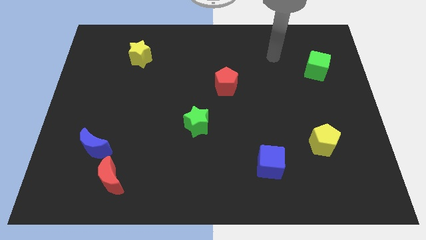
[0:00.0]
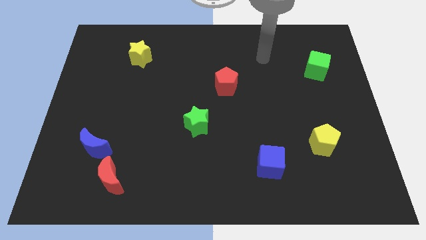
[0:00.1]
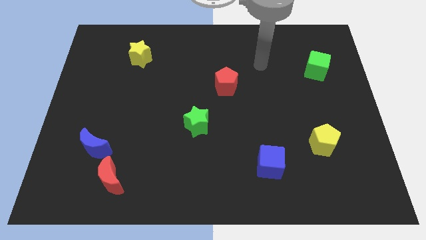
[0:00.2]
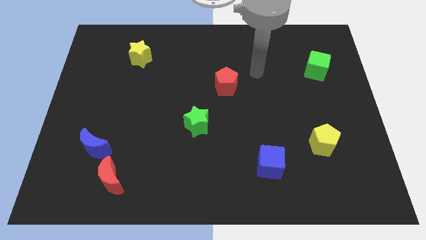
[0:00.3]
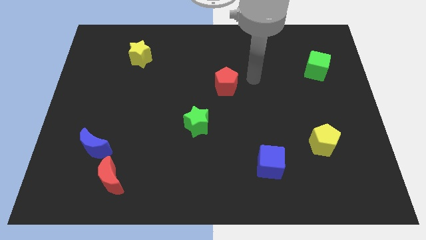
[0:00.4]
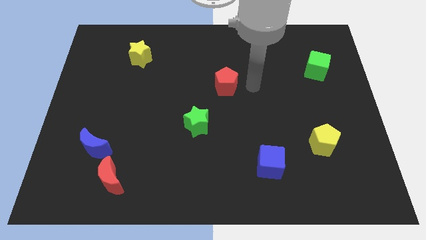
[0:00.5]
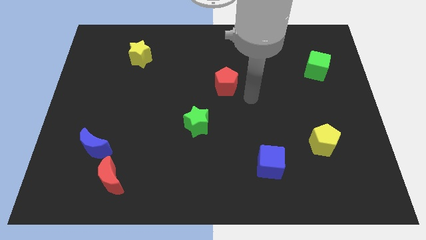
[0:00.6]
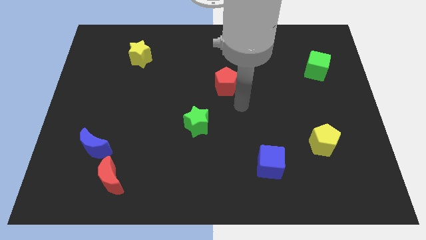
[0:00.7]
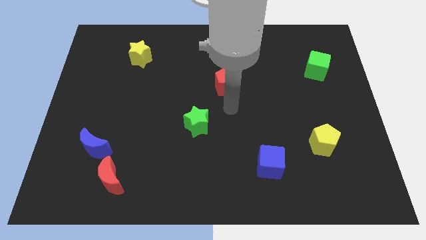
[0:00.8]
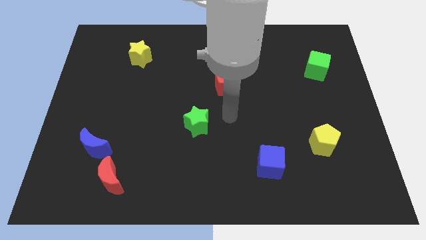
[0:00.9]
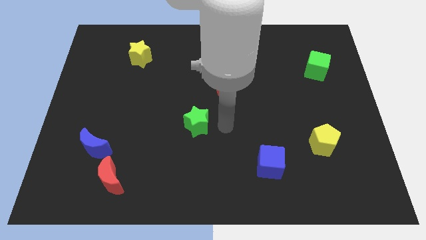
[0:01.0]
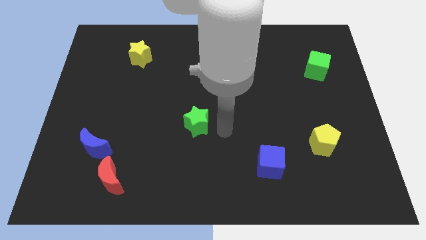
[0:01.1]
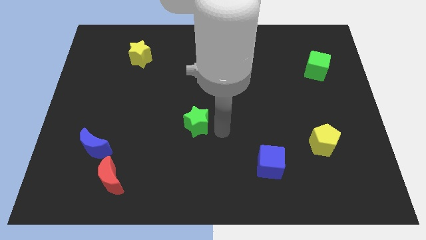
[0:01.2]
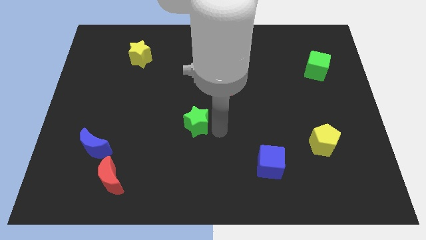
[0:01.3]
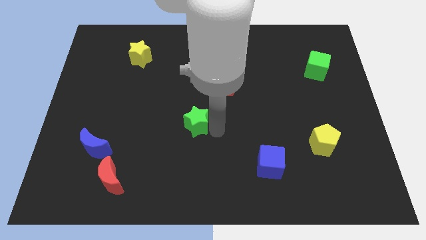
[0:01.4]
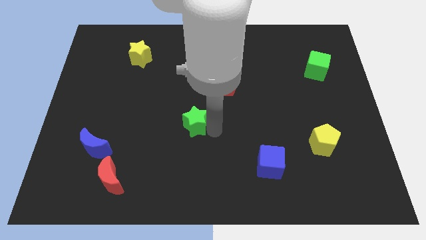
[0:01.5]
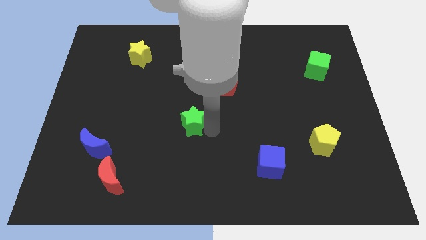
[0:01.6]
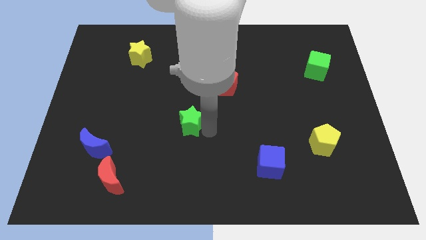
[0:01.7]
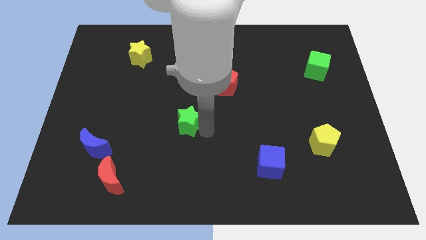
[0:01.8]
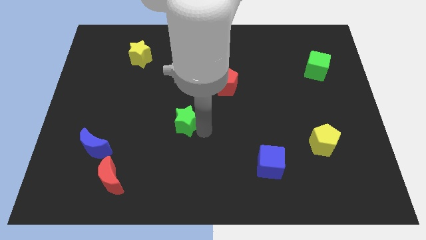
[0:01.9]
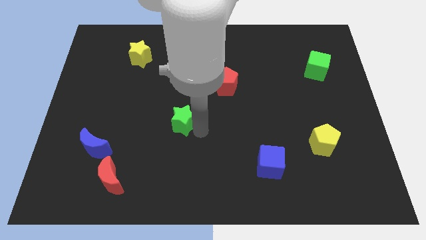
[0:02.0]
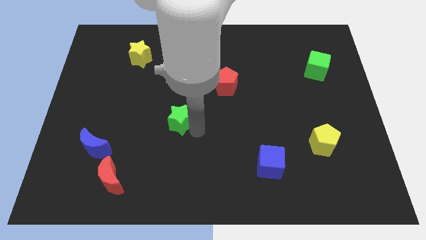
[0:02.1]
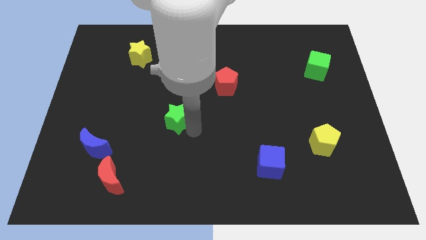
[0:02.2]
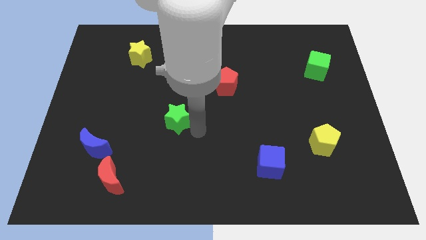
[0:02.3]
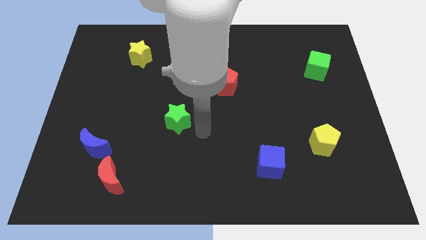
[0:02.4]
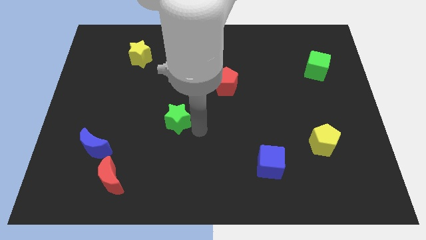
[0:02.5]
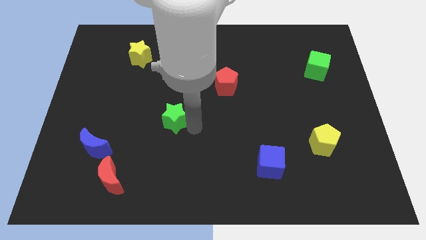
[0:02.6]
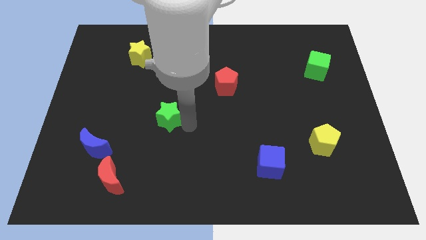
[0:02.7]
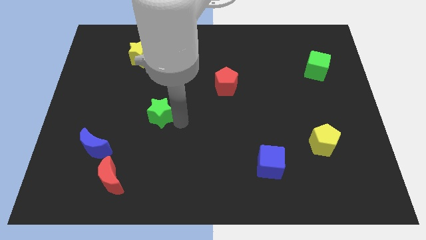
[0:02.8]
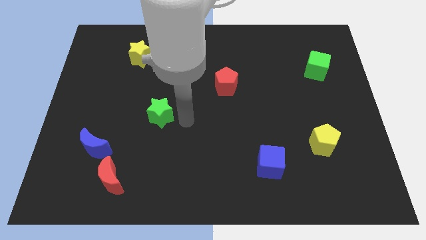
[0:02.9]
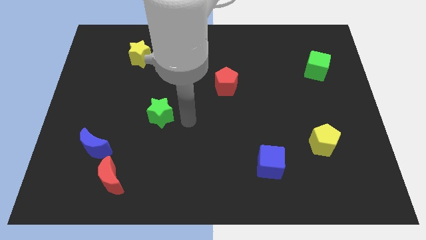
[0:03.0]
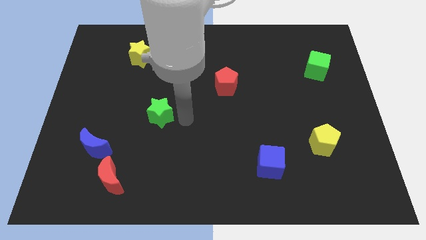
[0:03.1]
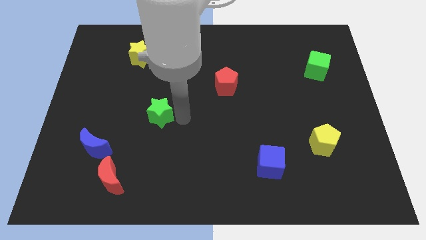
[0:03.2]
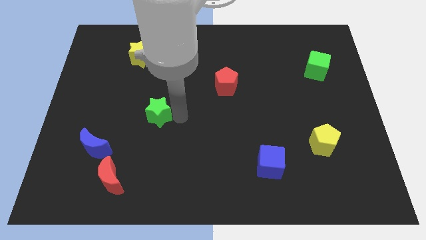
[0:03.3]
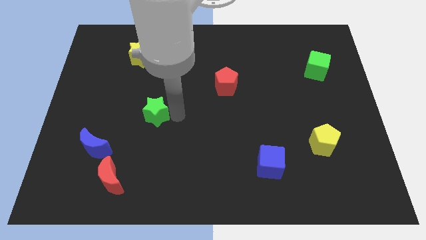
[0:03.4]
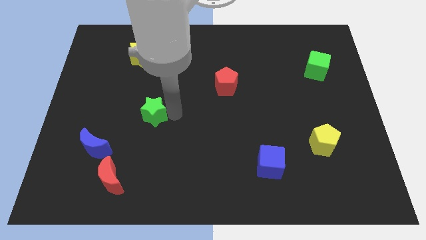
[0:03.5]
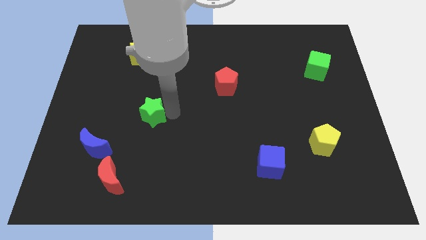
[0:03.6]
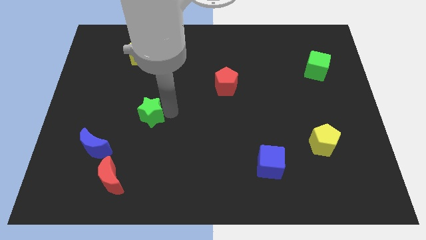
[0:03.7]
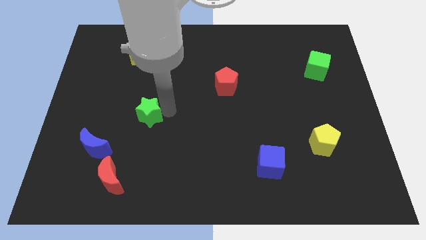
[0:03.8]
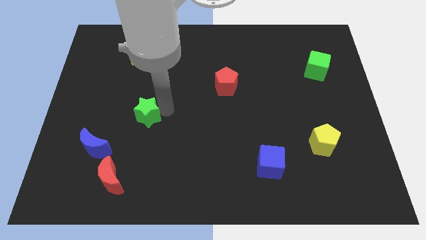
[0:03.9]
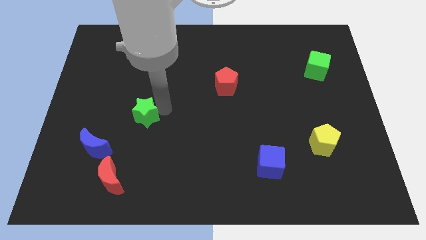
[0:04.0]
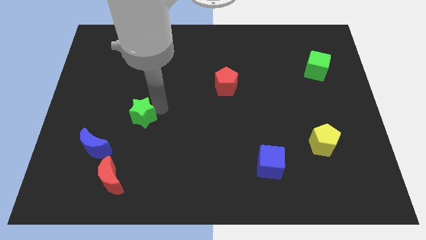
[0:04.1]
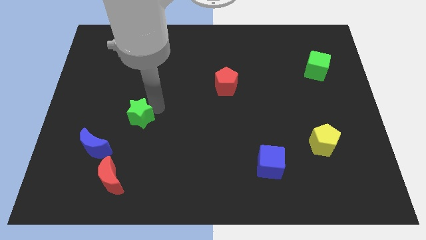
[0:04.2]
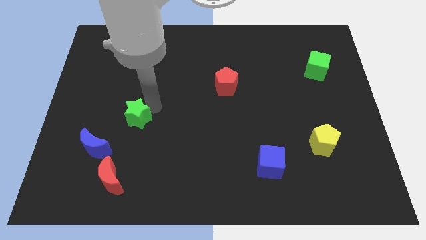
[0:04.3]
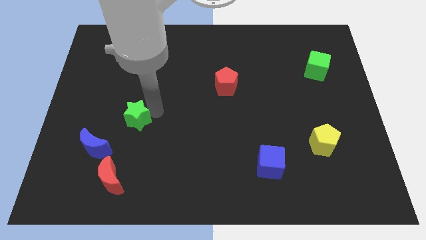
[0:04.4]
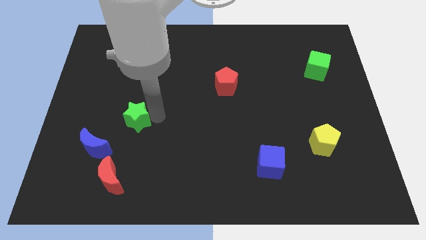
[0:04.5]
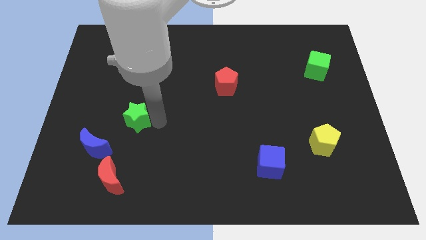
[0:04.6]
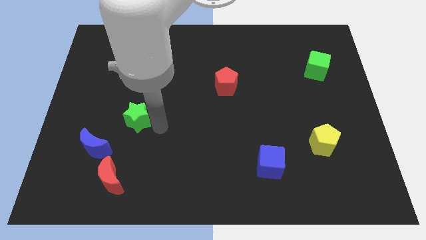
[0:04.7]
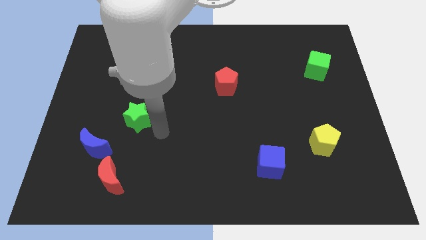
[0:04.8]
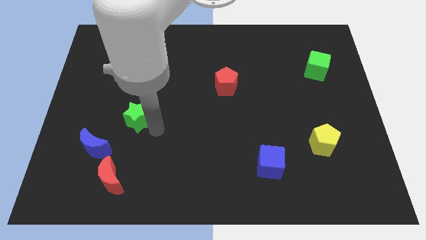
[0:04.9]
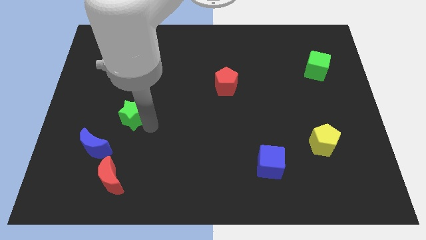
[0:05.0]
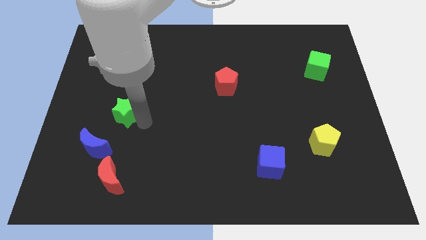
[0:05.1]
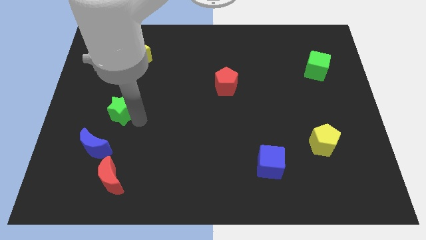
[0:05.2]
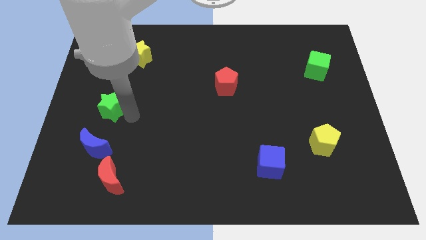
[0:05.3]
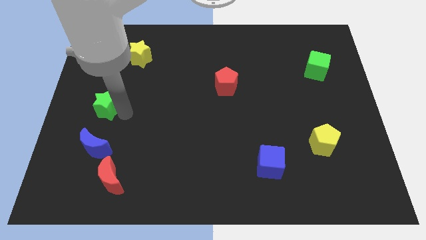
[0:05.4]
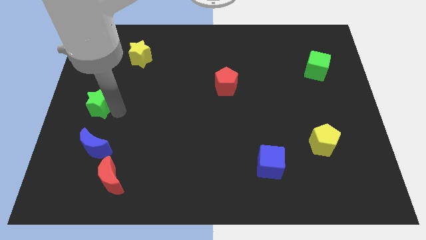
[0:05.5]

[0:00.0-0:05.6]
slide the green star to the center left

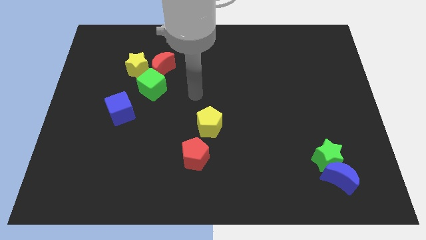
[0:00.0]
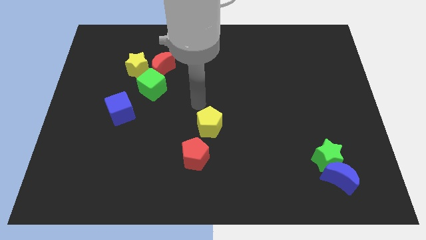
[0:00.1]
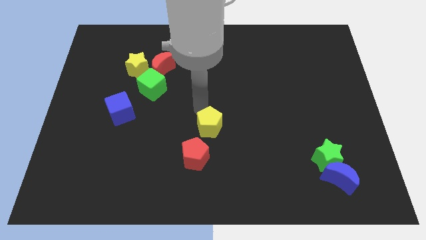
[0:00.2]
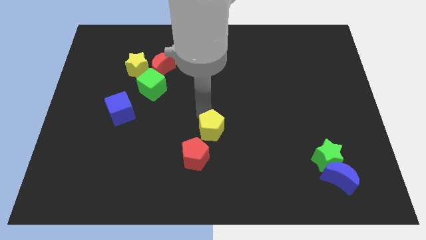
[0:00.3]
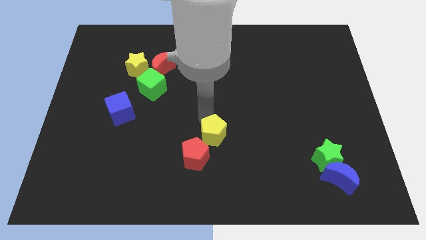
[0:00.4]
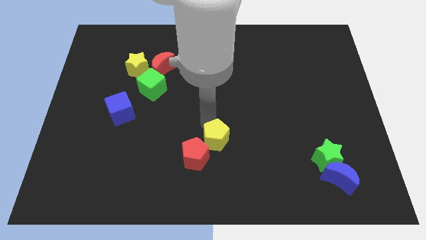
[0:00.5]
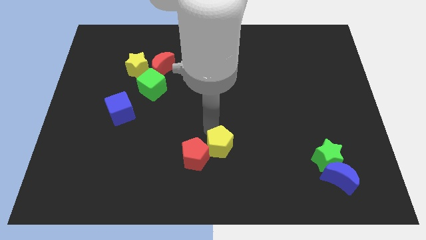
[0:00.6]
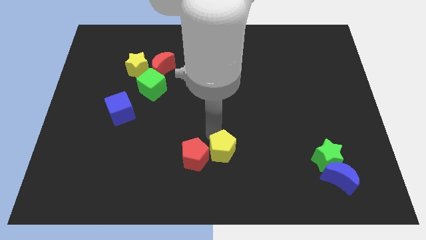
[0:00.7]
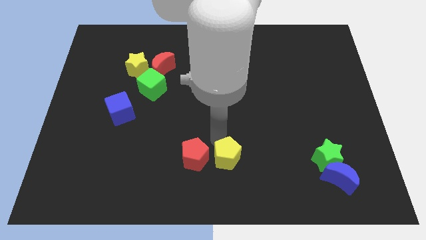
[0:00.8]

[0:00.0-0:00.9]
push the yellow pentagon to the bottom side

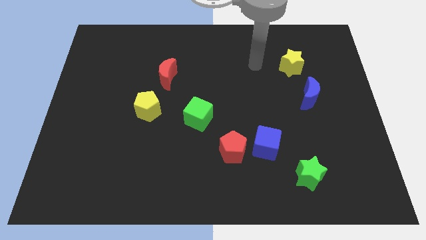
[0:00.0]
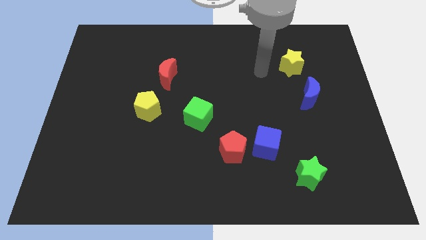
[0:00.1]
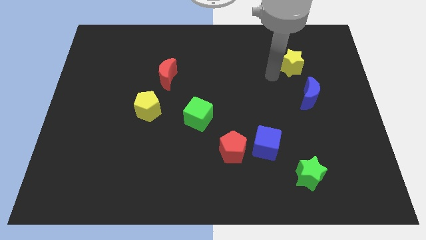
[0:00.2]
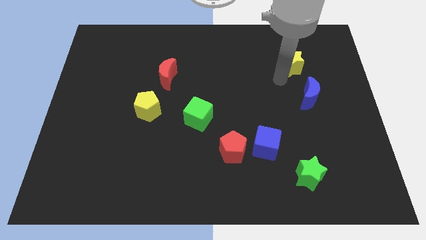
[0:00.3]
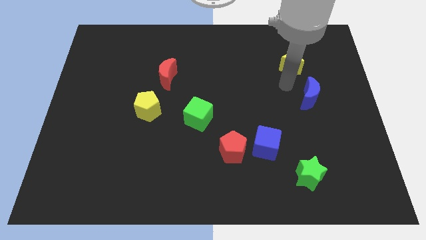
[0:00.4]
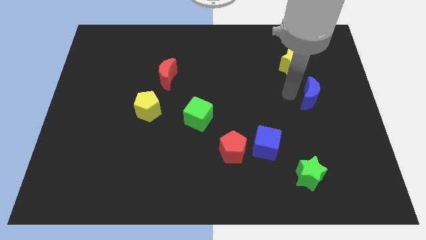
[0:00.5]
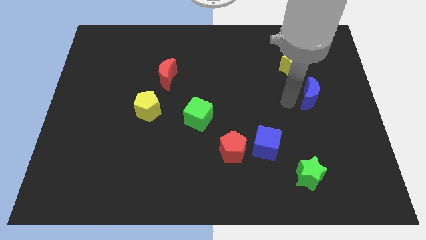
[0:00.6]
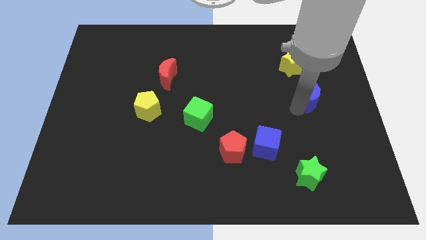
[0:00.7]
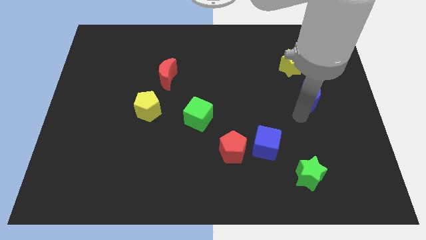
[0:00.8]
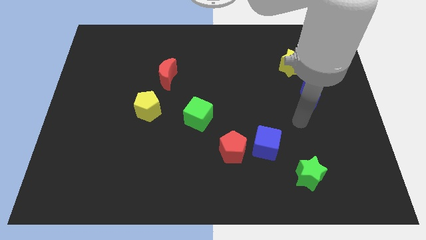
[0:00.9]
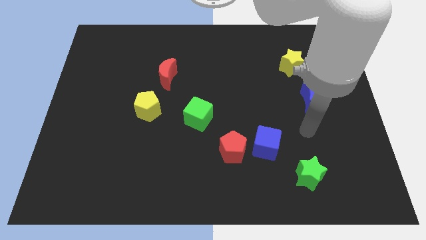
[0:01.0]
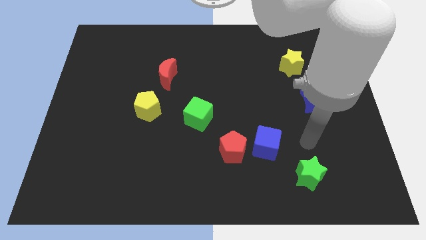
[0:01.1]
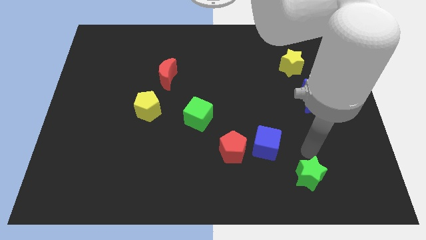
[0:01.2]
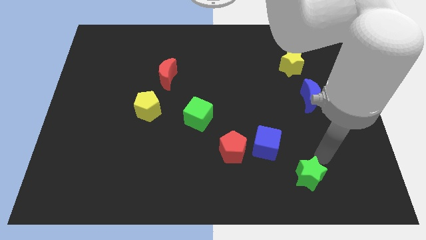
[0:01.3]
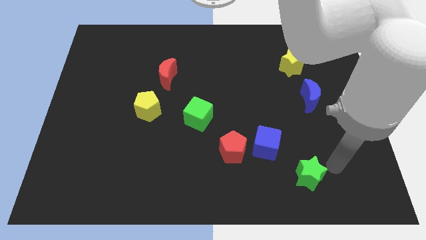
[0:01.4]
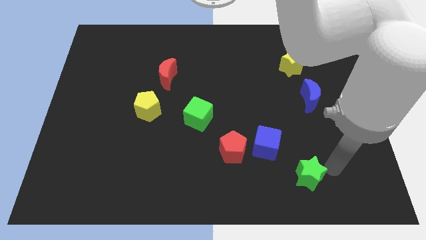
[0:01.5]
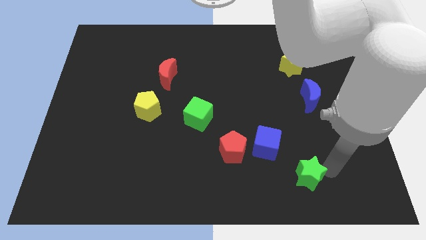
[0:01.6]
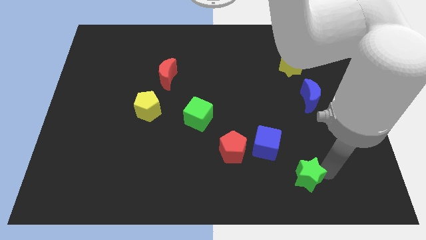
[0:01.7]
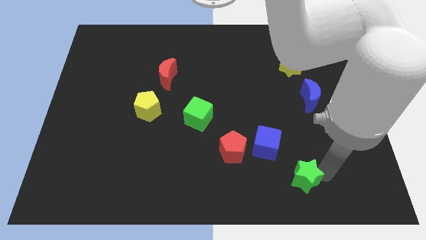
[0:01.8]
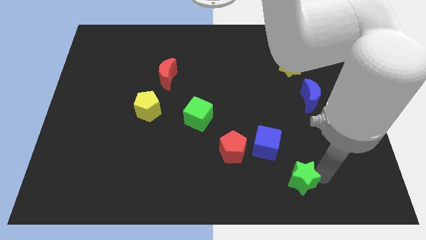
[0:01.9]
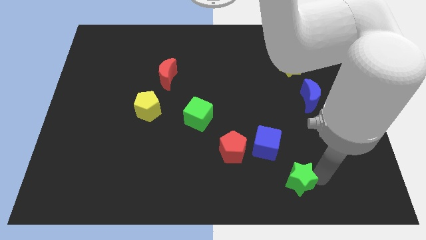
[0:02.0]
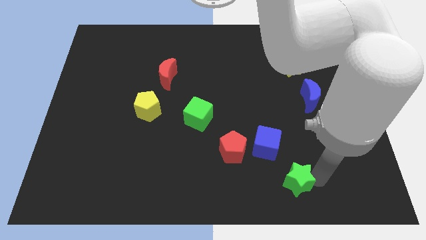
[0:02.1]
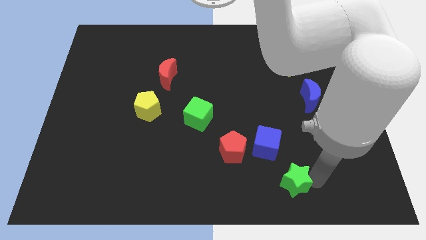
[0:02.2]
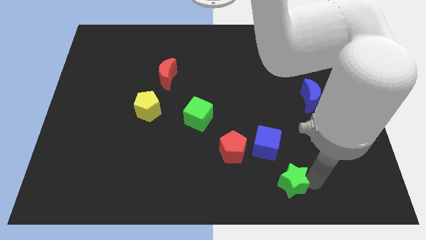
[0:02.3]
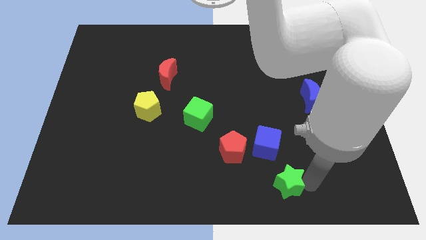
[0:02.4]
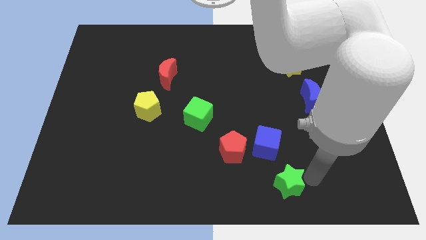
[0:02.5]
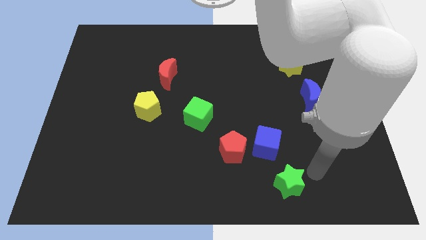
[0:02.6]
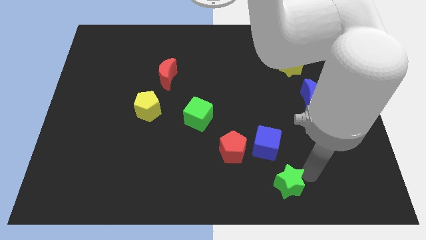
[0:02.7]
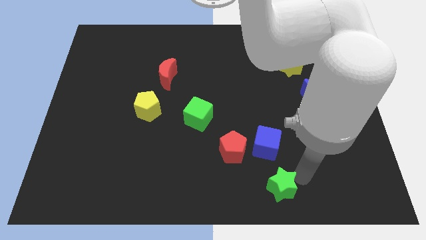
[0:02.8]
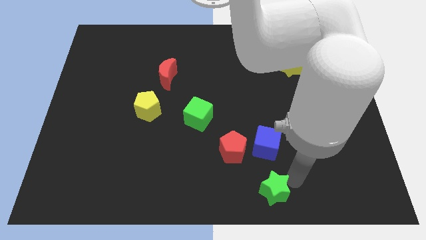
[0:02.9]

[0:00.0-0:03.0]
put the green star to the bottom side
